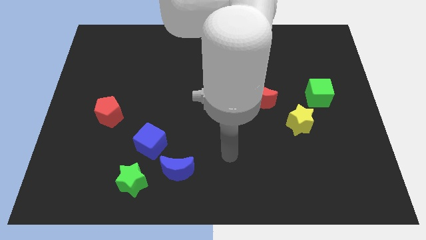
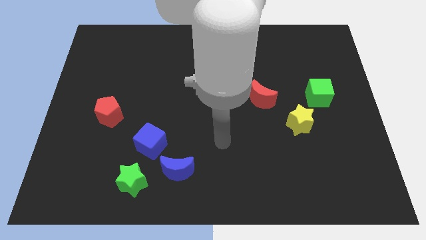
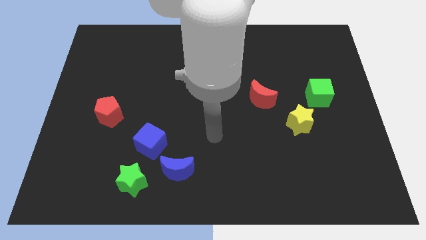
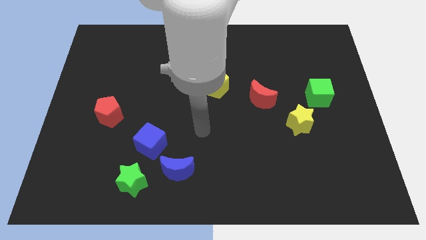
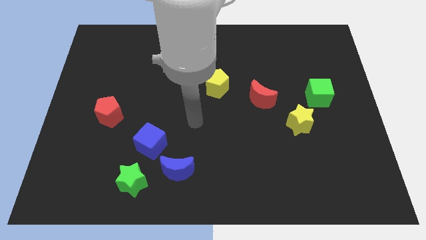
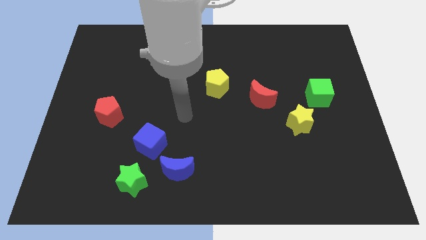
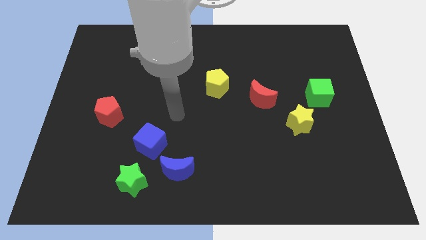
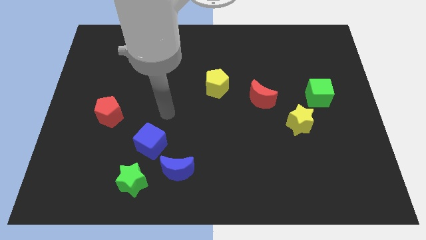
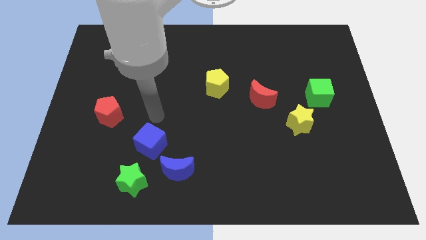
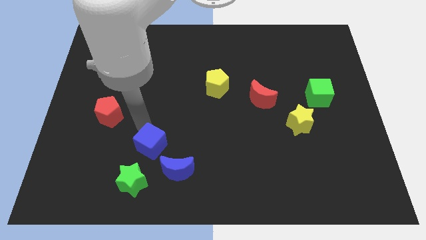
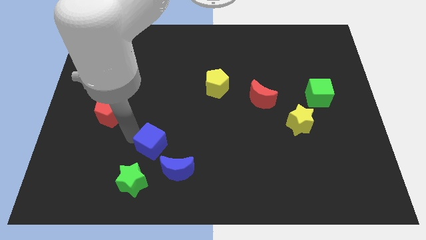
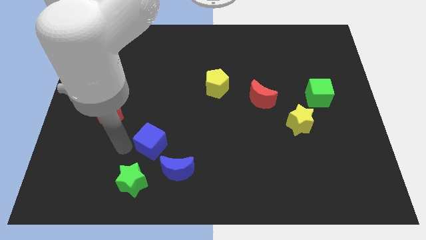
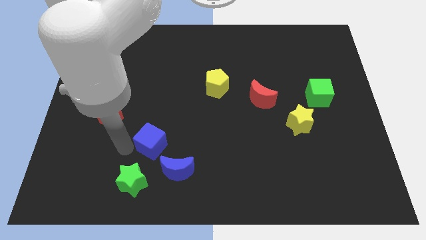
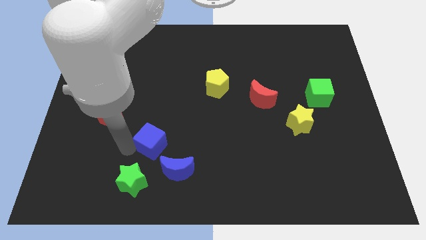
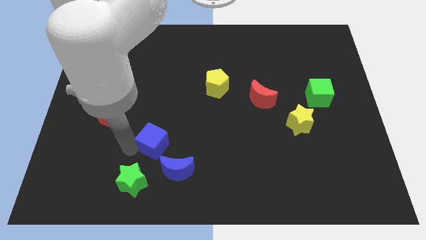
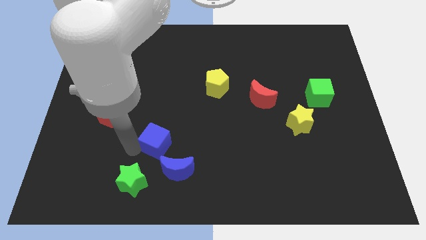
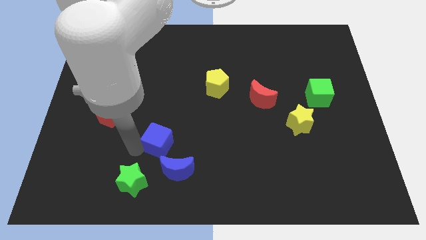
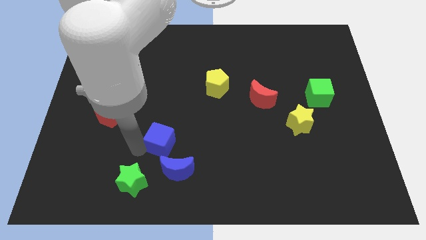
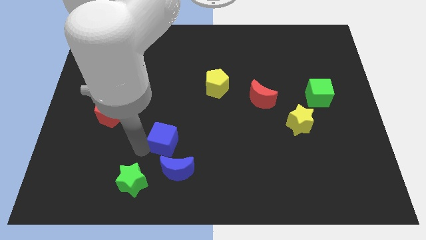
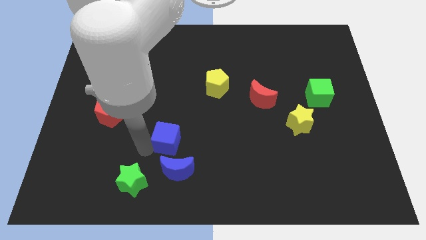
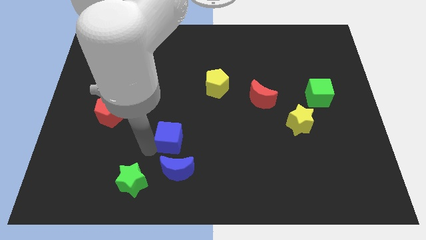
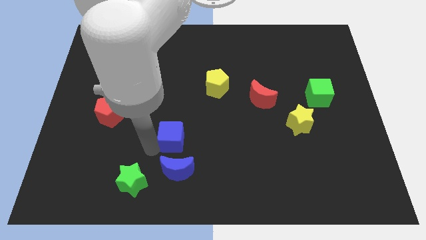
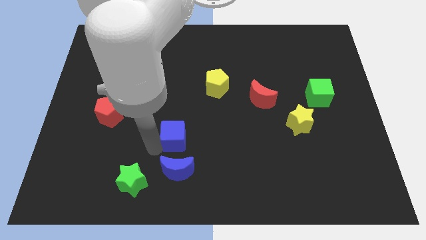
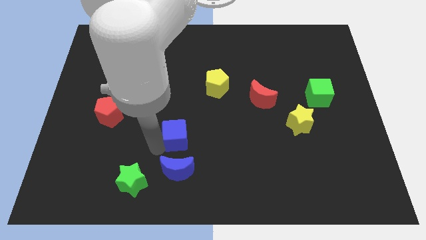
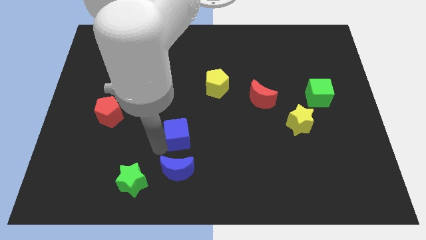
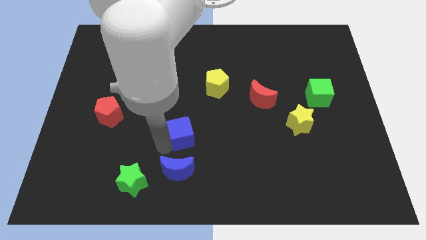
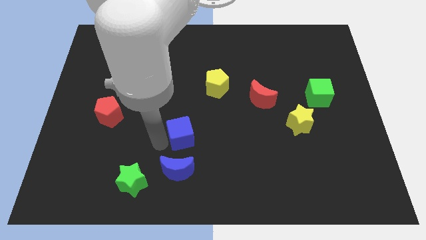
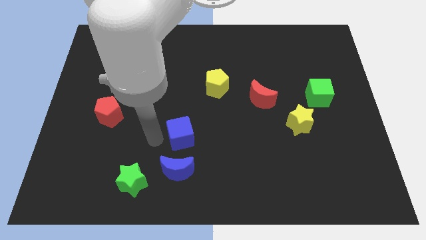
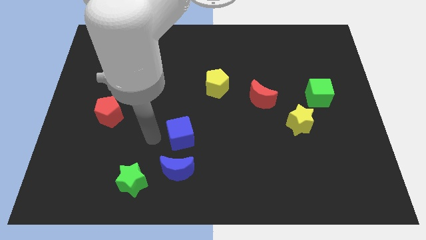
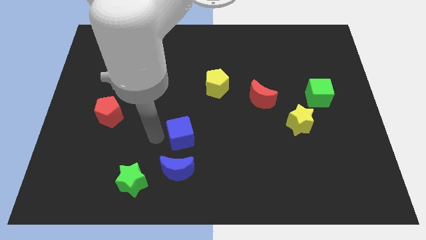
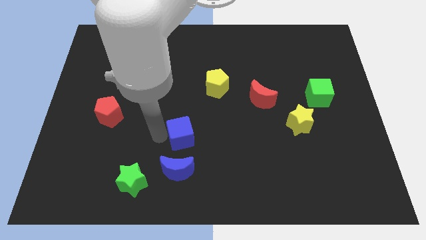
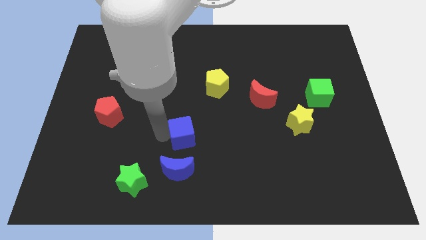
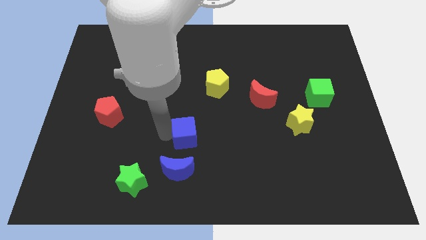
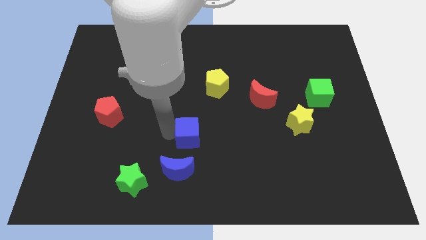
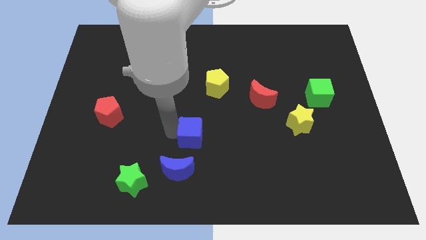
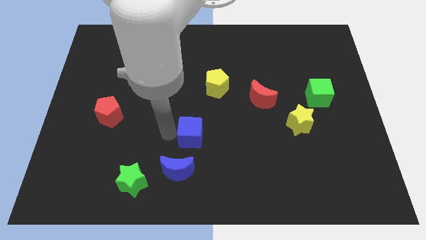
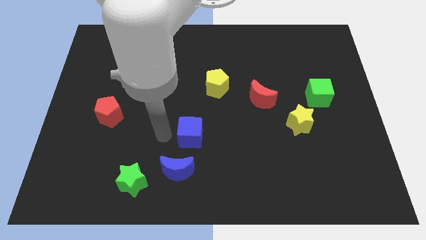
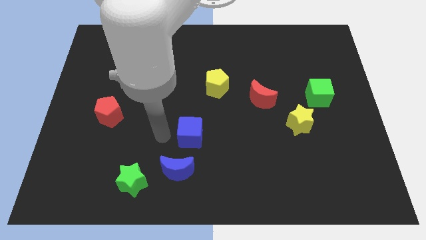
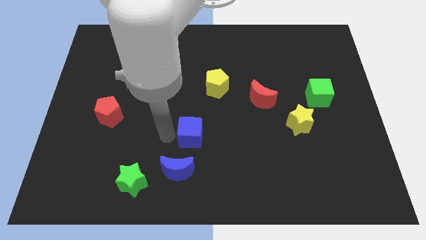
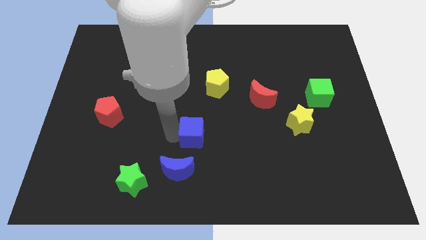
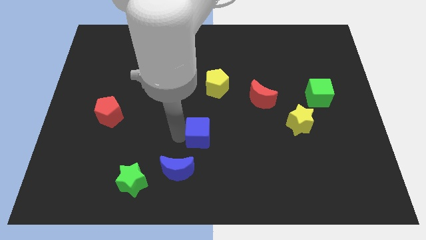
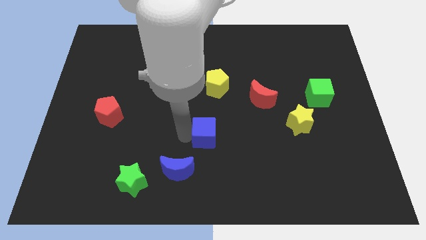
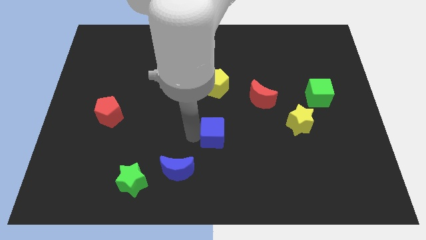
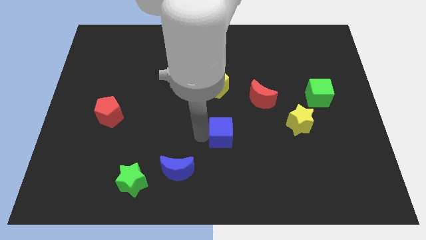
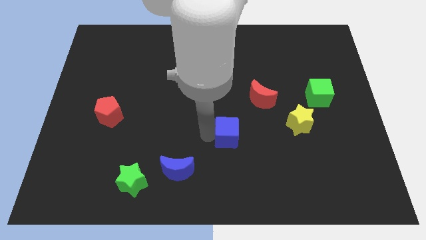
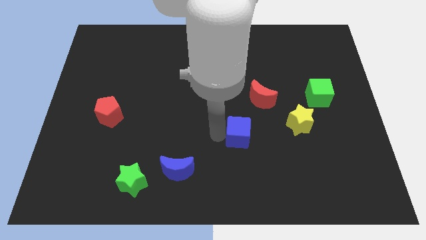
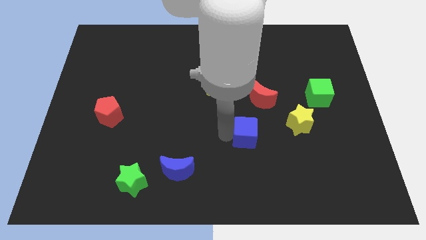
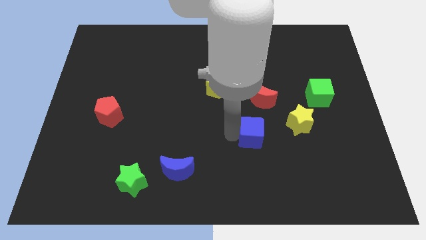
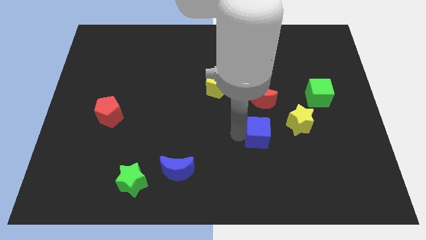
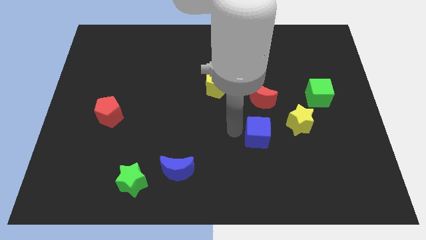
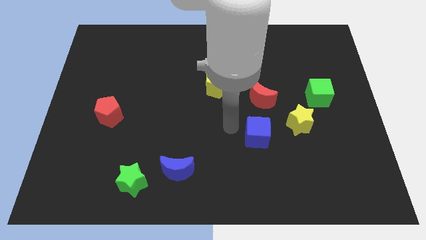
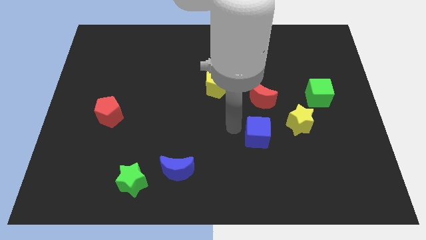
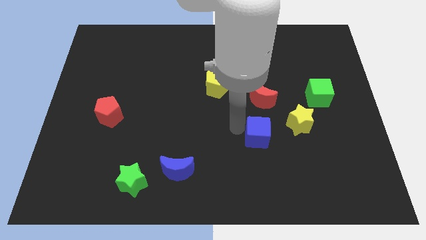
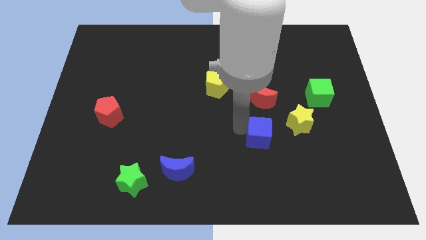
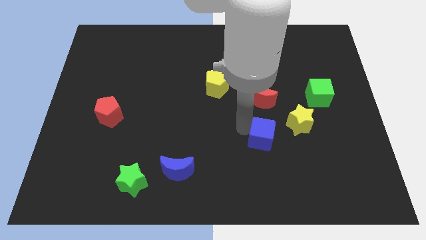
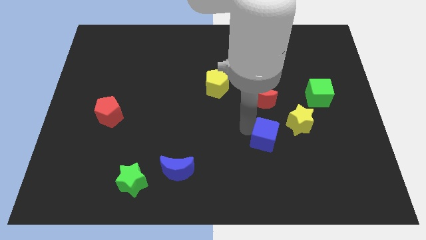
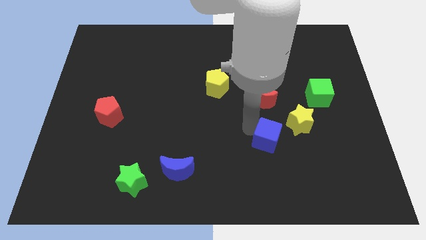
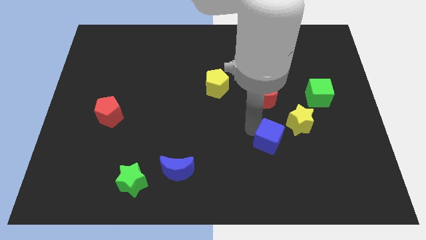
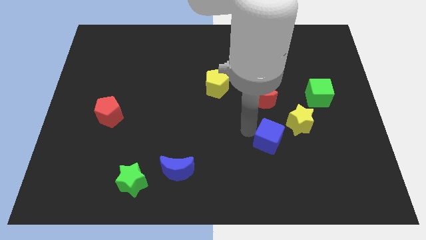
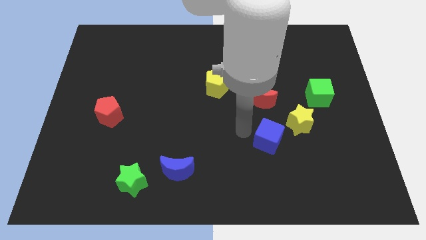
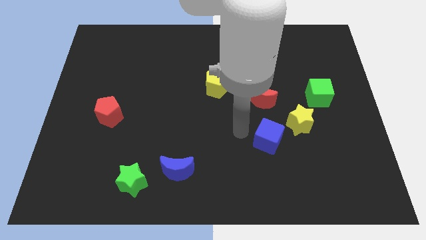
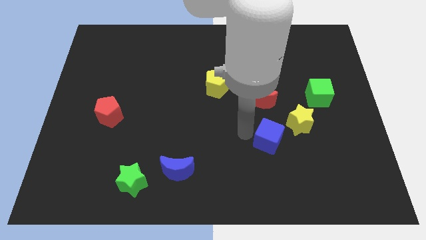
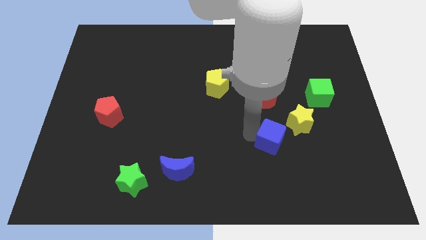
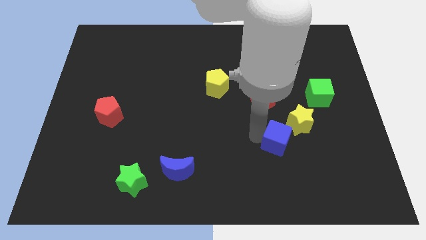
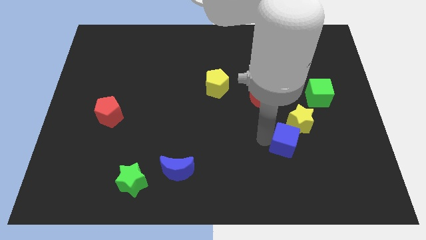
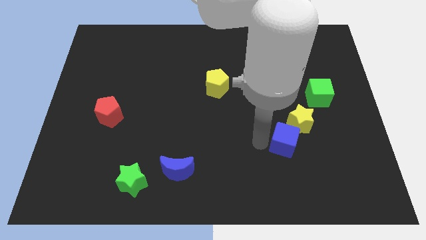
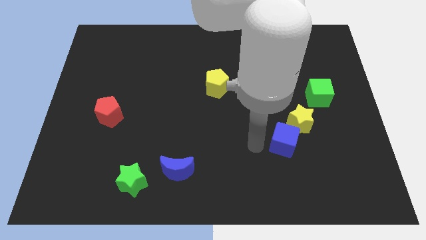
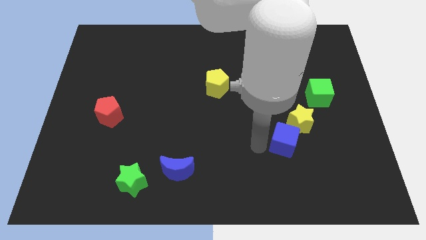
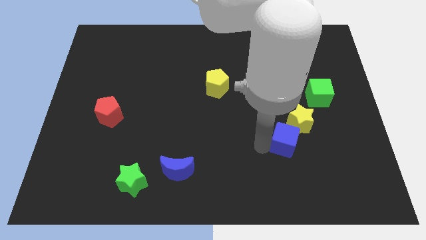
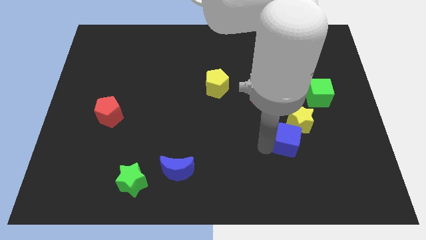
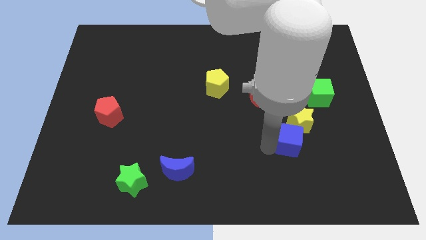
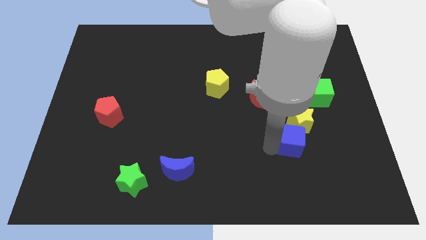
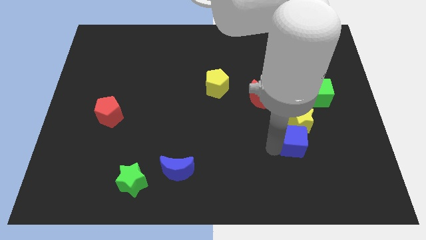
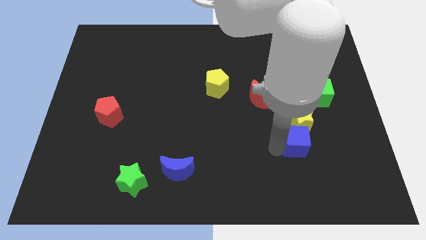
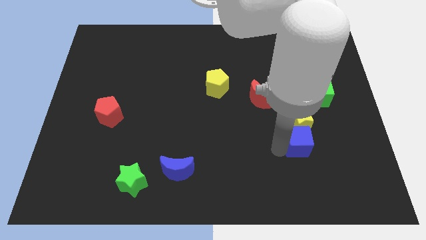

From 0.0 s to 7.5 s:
slide the blue cube to the bottom right side of the yellow star
